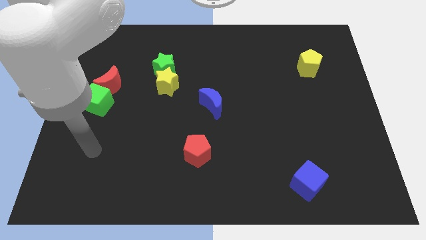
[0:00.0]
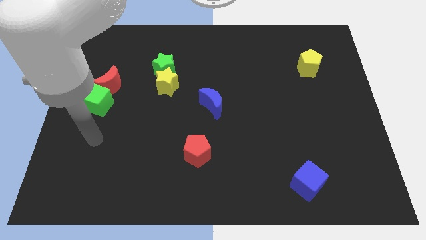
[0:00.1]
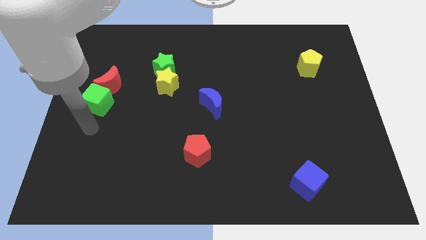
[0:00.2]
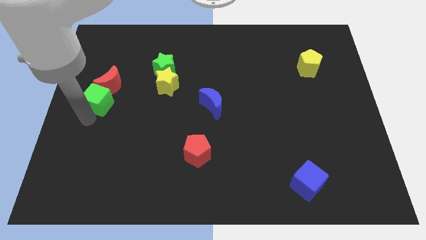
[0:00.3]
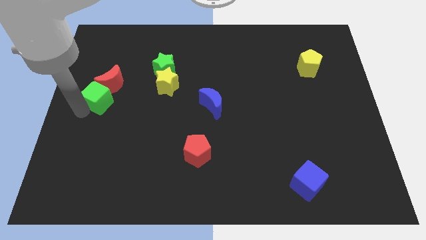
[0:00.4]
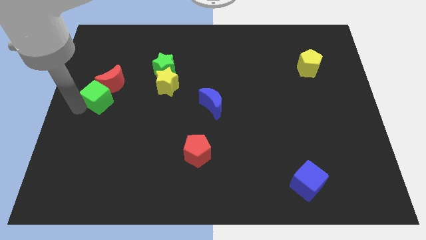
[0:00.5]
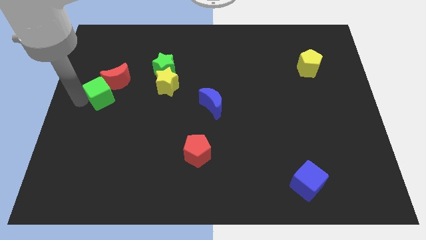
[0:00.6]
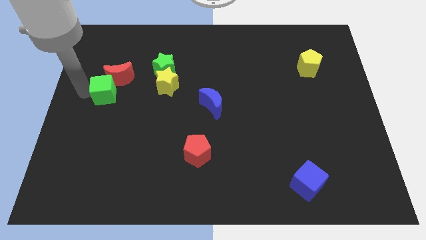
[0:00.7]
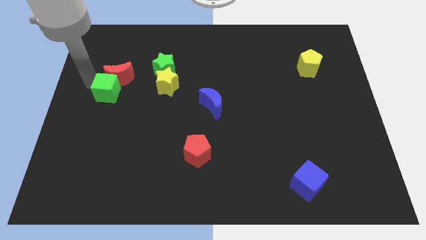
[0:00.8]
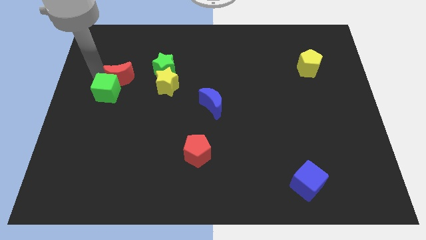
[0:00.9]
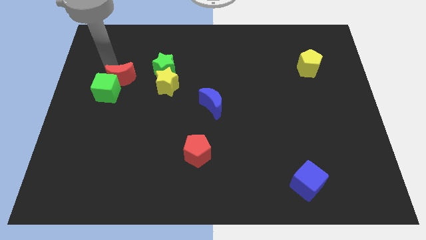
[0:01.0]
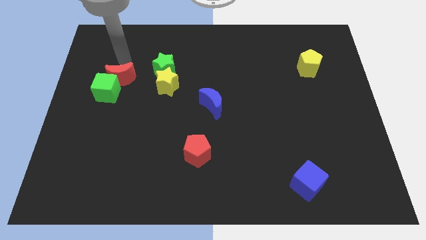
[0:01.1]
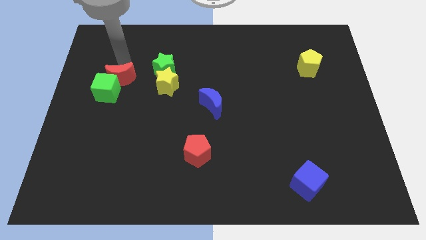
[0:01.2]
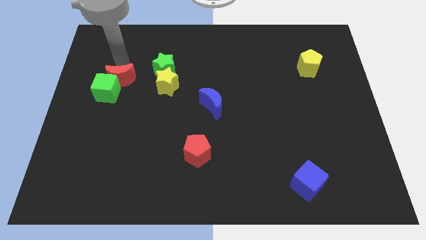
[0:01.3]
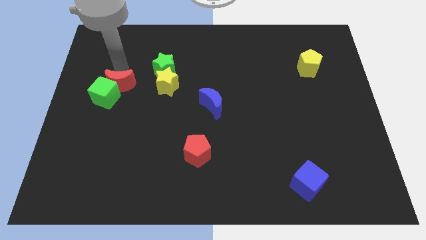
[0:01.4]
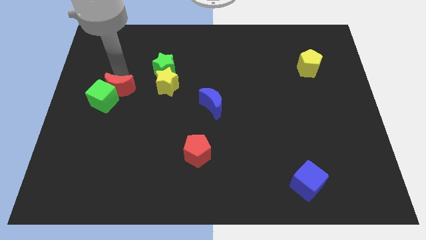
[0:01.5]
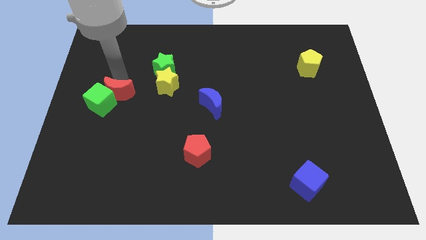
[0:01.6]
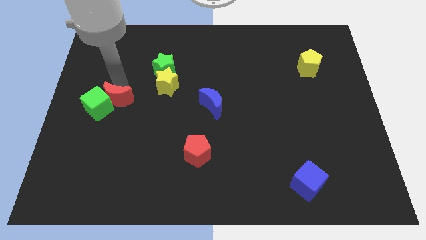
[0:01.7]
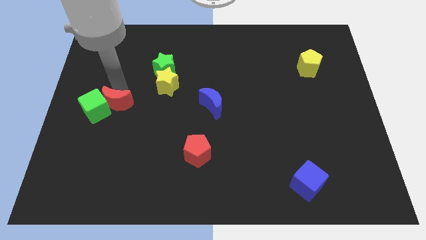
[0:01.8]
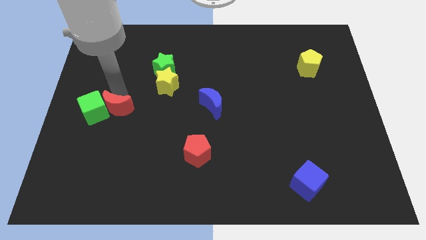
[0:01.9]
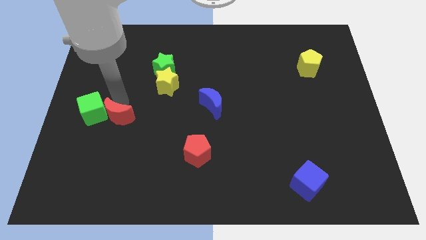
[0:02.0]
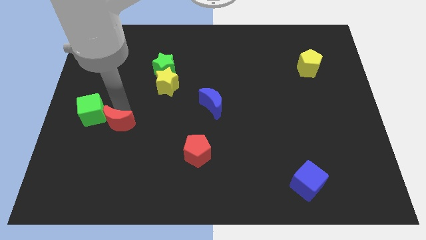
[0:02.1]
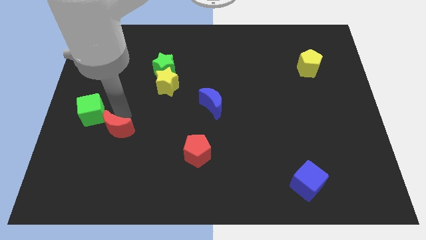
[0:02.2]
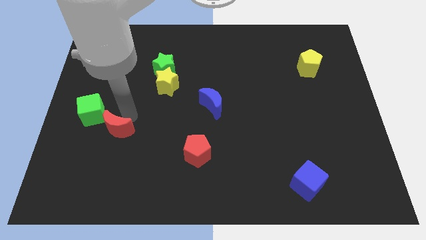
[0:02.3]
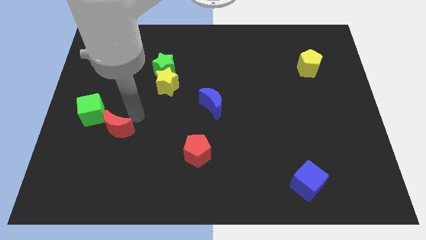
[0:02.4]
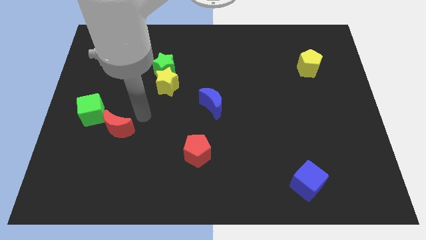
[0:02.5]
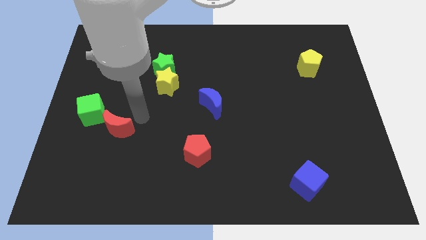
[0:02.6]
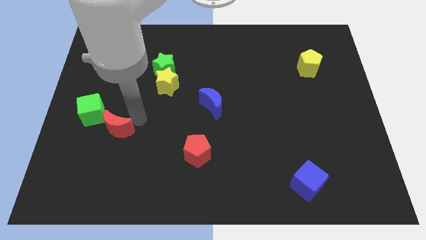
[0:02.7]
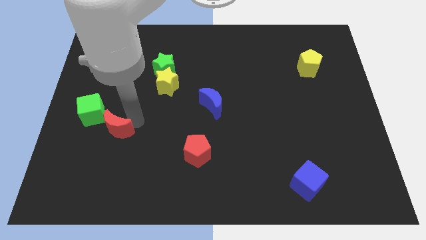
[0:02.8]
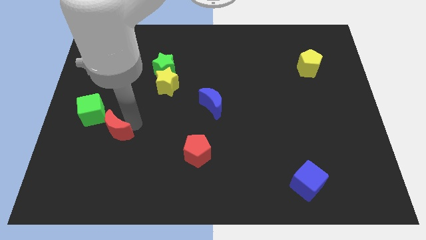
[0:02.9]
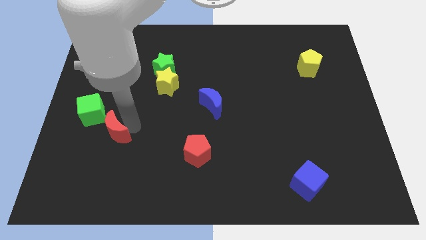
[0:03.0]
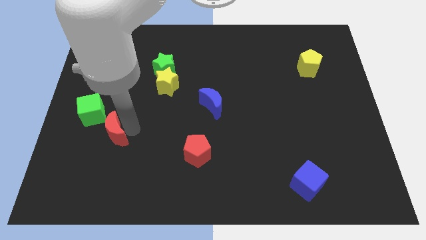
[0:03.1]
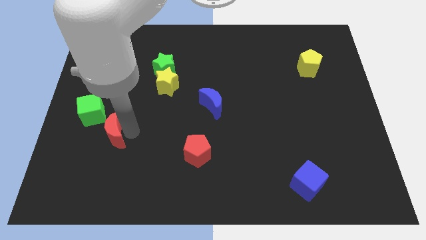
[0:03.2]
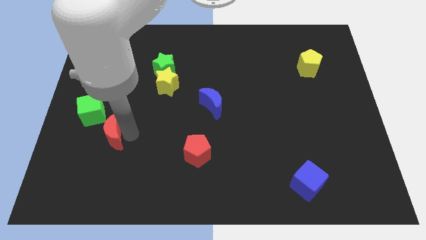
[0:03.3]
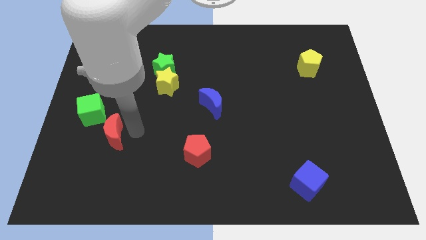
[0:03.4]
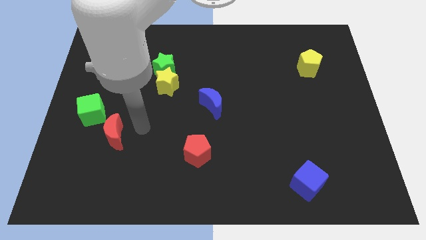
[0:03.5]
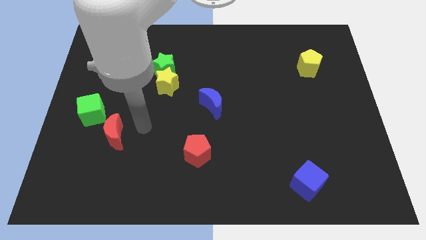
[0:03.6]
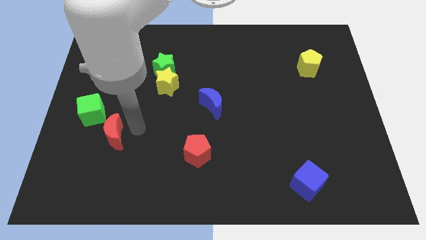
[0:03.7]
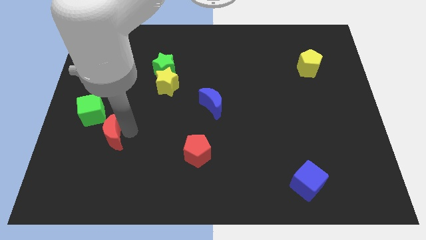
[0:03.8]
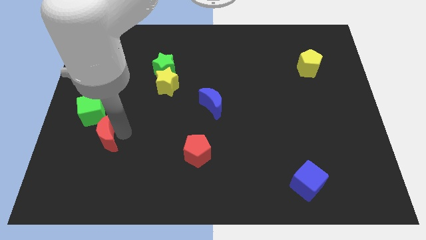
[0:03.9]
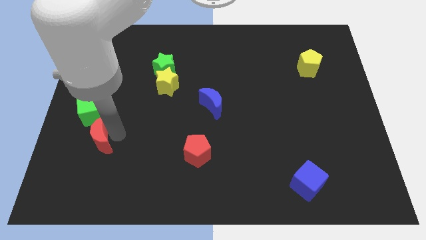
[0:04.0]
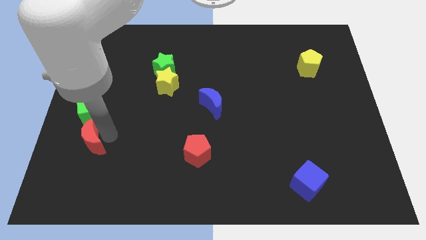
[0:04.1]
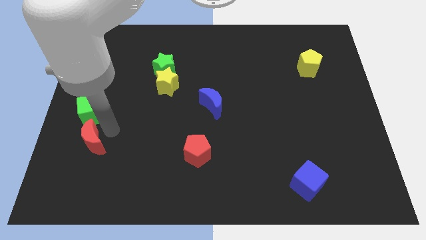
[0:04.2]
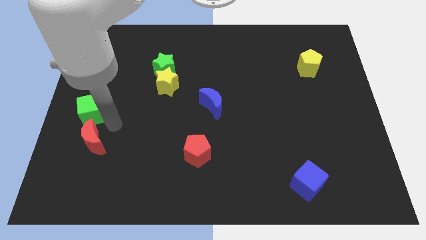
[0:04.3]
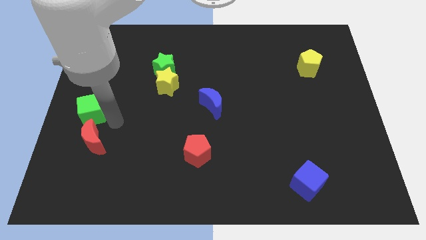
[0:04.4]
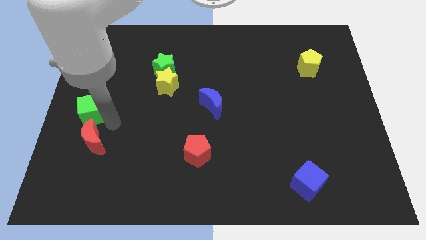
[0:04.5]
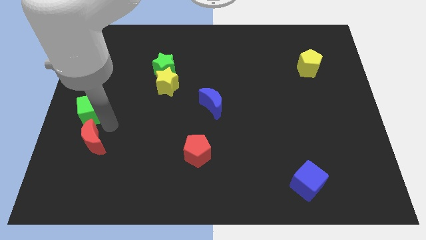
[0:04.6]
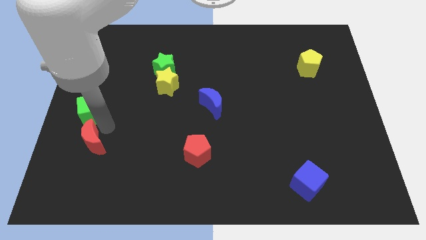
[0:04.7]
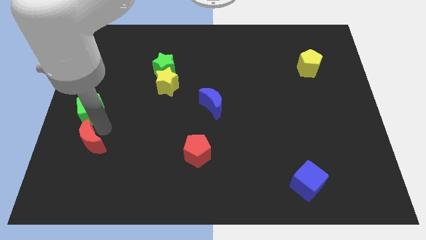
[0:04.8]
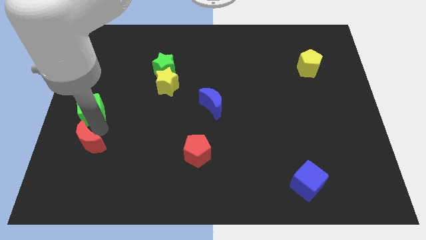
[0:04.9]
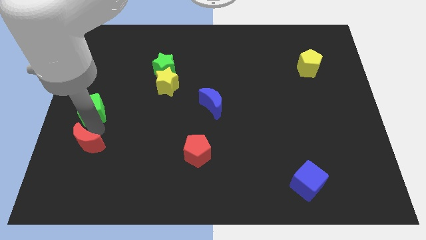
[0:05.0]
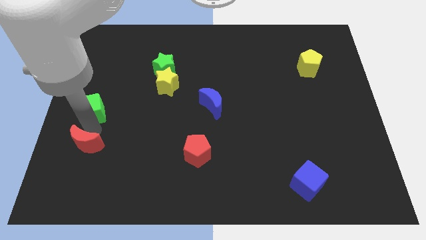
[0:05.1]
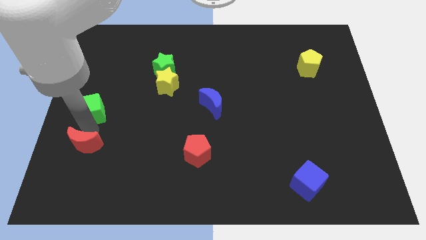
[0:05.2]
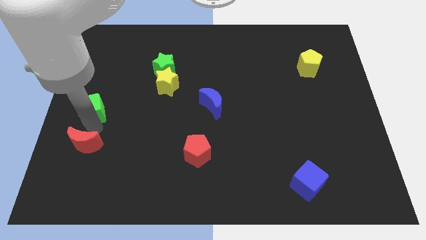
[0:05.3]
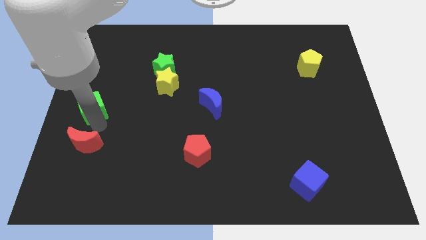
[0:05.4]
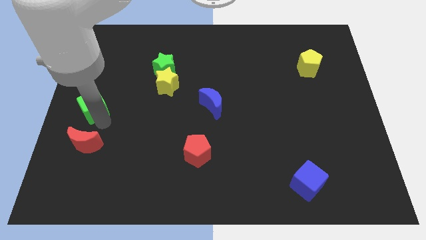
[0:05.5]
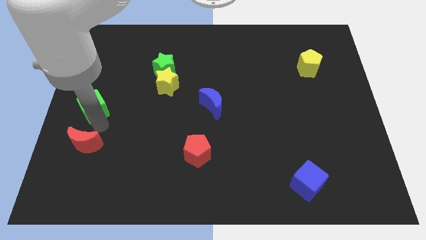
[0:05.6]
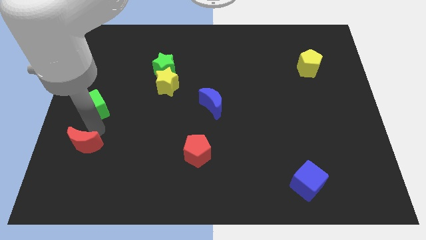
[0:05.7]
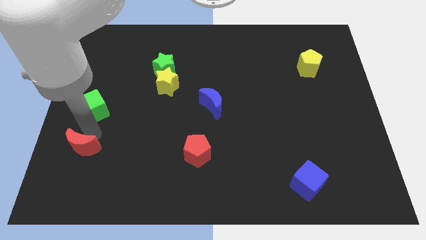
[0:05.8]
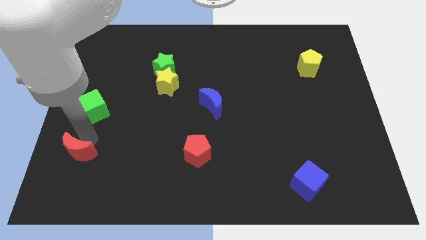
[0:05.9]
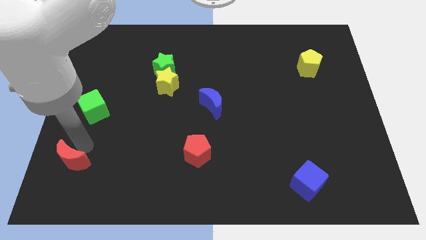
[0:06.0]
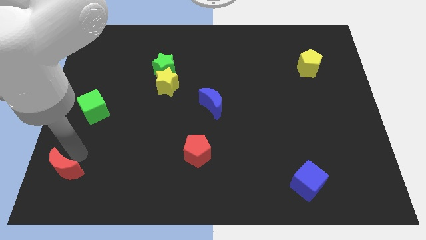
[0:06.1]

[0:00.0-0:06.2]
slide the red moon to the bottom left corner

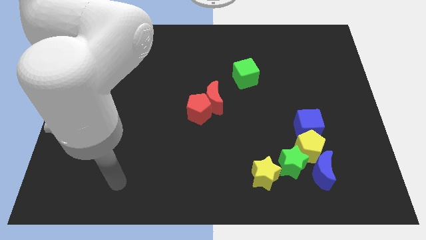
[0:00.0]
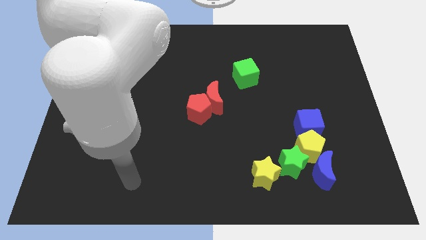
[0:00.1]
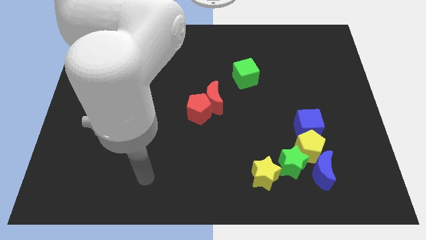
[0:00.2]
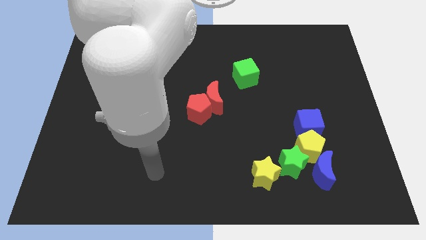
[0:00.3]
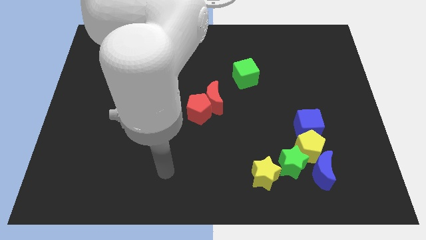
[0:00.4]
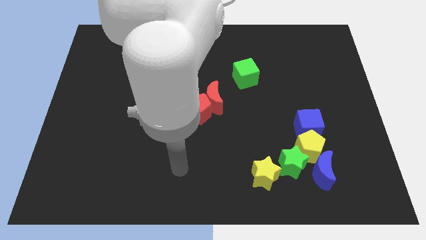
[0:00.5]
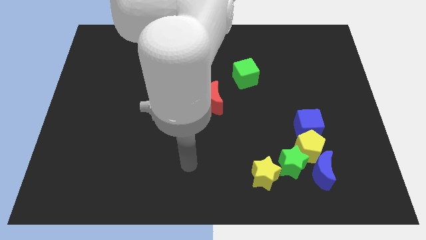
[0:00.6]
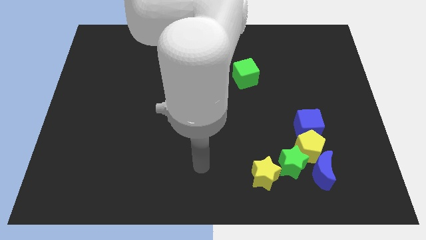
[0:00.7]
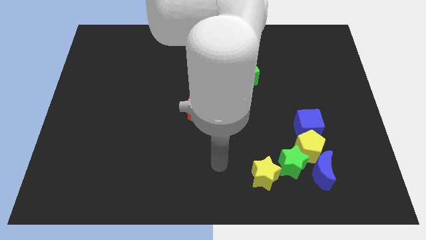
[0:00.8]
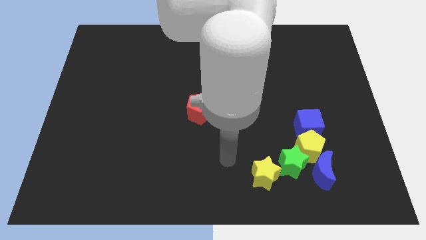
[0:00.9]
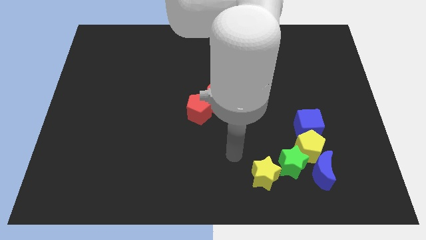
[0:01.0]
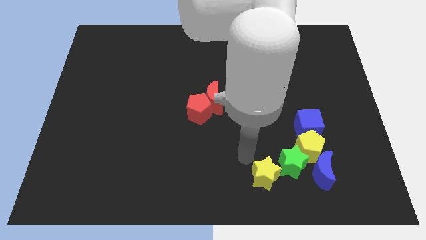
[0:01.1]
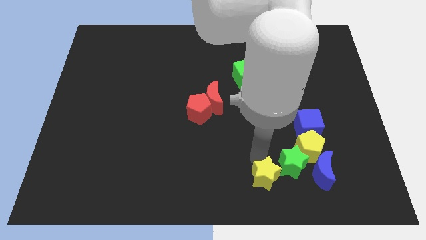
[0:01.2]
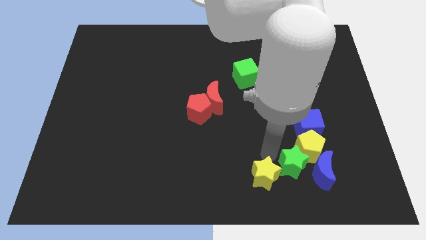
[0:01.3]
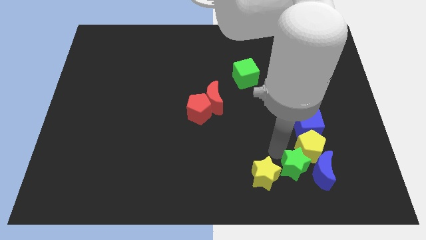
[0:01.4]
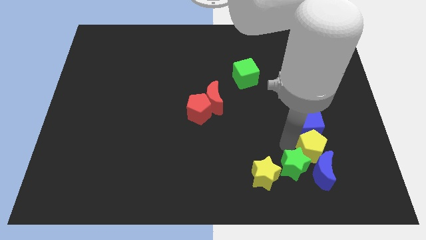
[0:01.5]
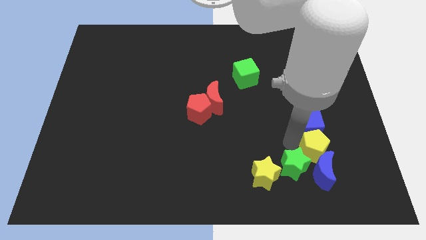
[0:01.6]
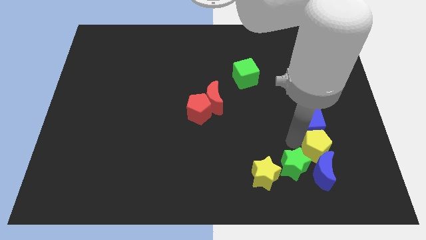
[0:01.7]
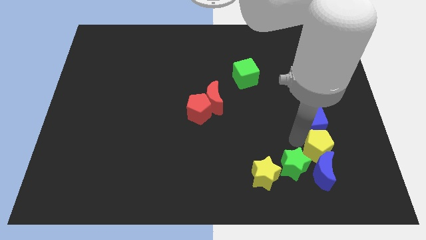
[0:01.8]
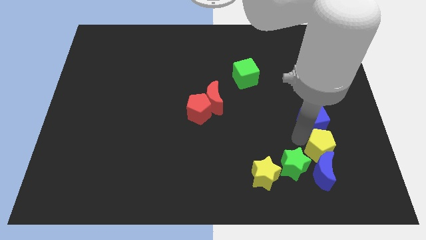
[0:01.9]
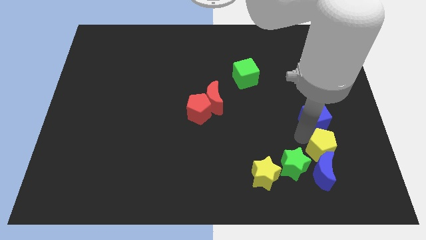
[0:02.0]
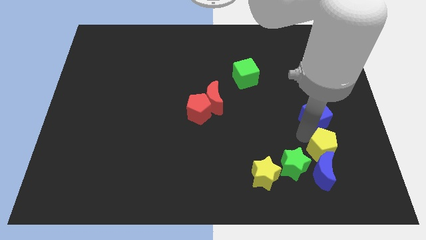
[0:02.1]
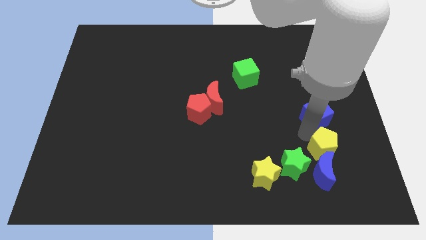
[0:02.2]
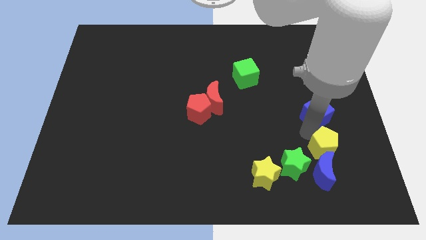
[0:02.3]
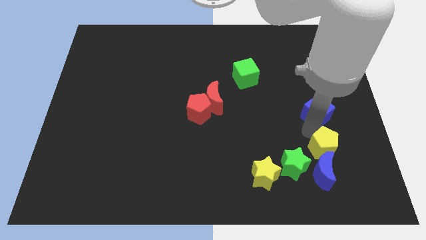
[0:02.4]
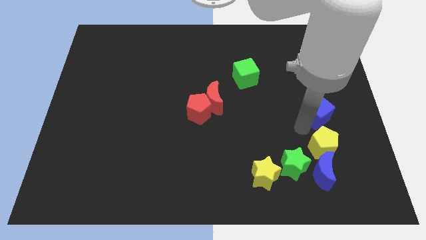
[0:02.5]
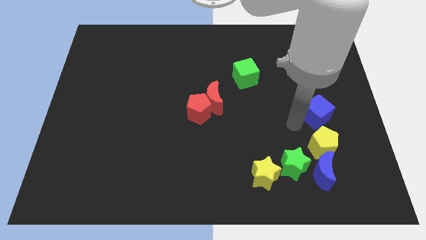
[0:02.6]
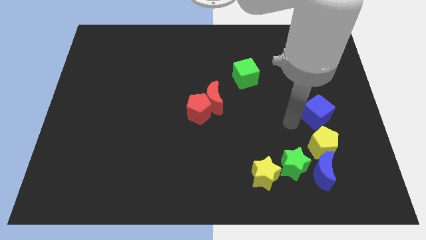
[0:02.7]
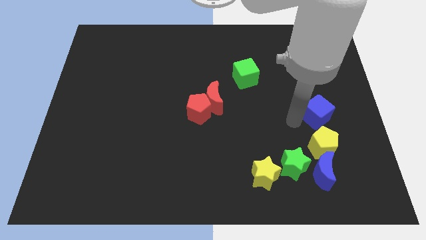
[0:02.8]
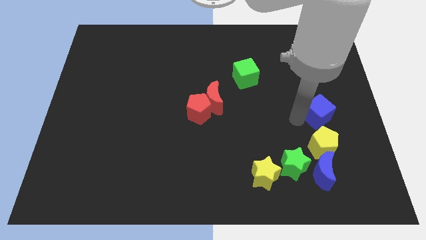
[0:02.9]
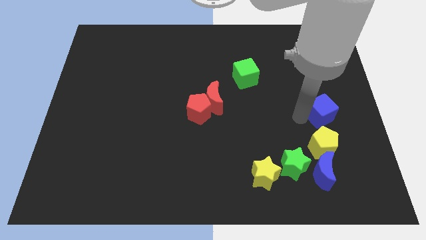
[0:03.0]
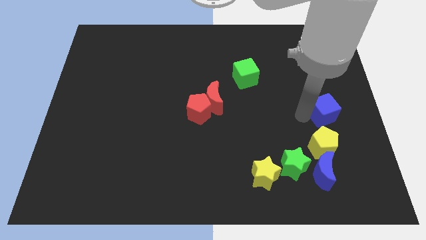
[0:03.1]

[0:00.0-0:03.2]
slide the blue cube to the right side of the board
